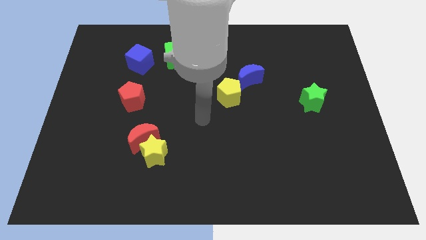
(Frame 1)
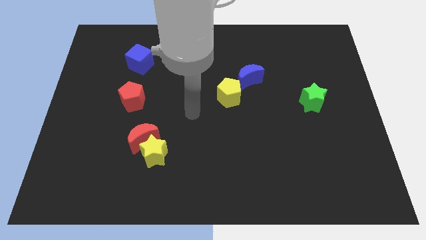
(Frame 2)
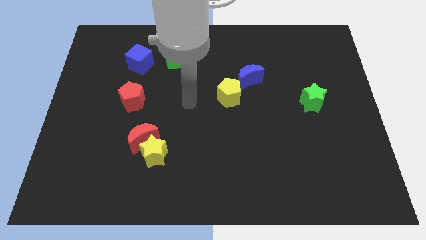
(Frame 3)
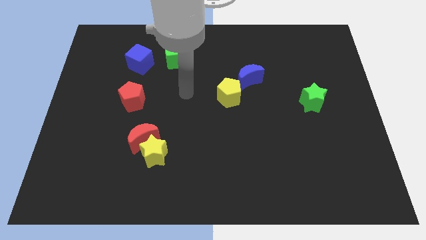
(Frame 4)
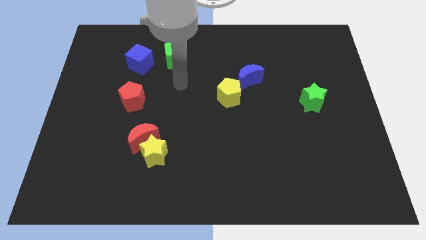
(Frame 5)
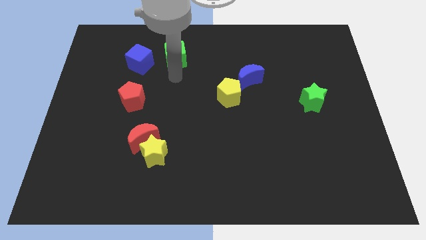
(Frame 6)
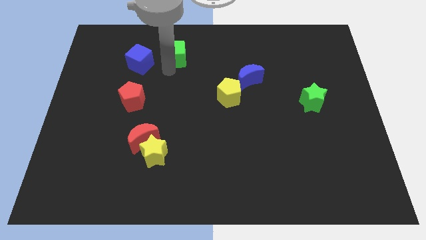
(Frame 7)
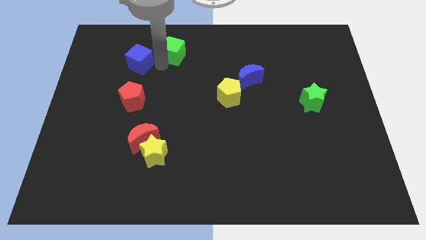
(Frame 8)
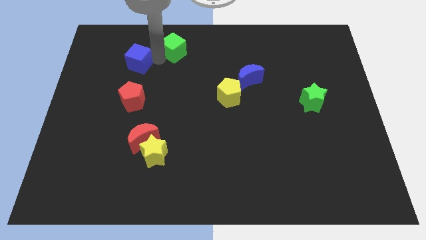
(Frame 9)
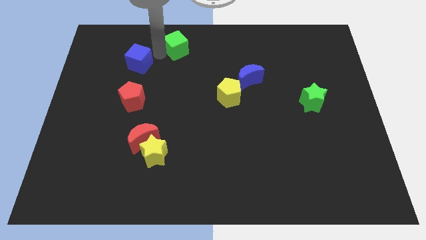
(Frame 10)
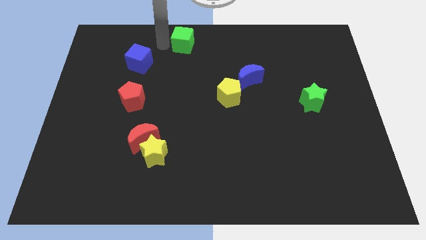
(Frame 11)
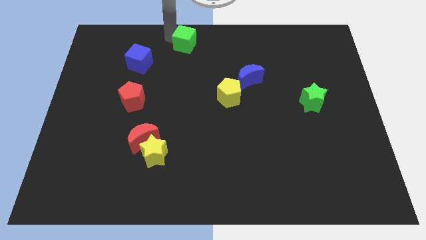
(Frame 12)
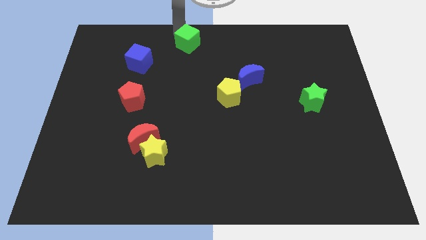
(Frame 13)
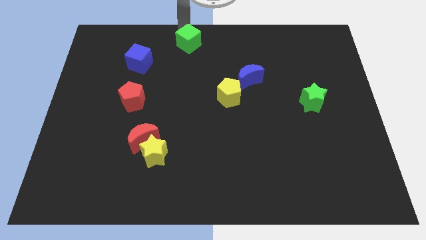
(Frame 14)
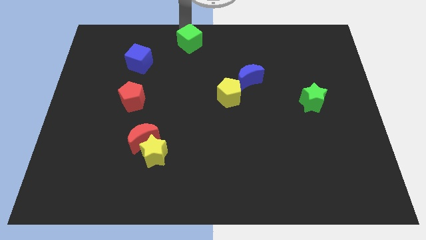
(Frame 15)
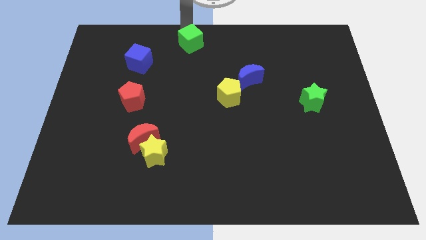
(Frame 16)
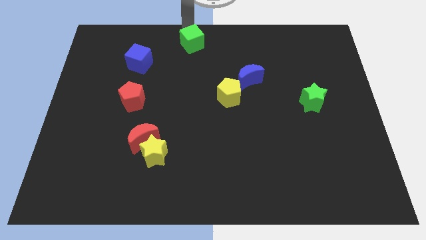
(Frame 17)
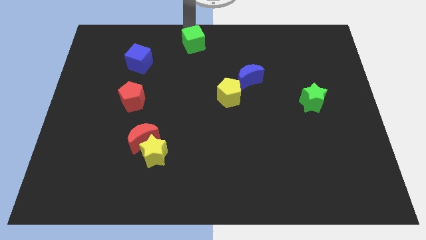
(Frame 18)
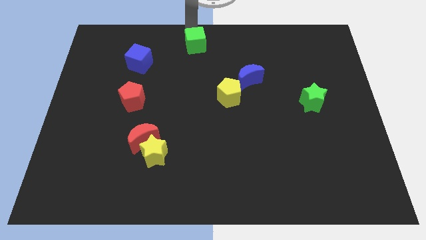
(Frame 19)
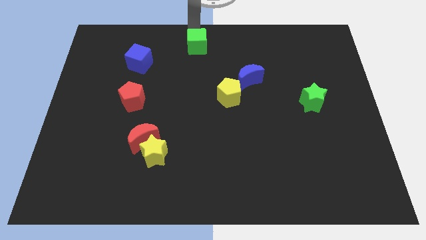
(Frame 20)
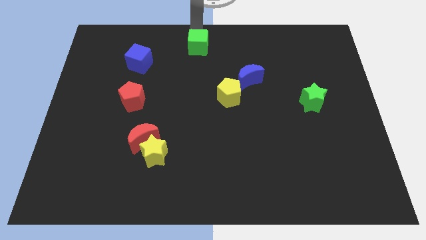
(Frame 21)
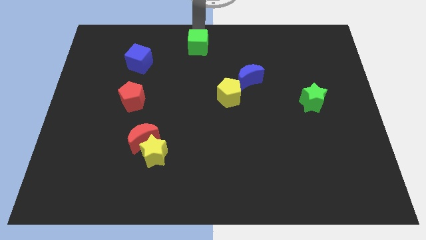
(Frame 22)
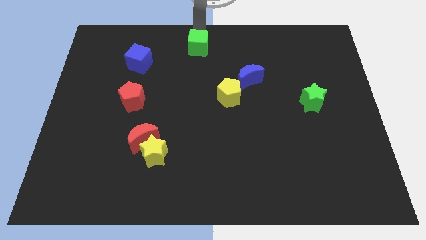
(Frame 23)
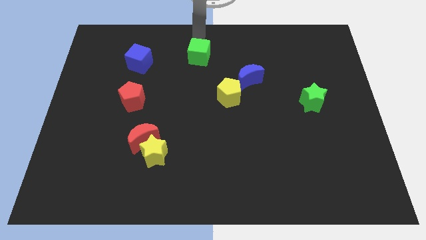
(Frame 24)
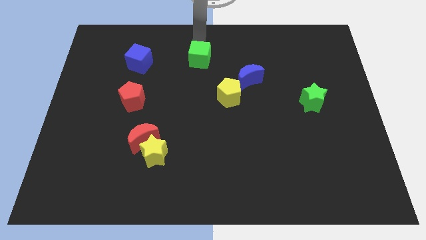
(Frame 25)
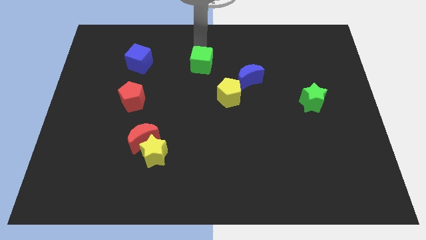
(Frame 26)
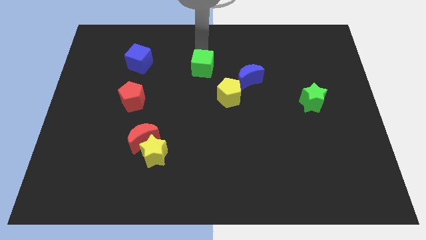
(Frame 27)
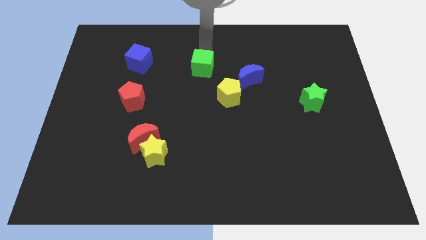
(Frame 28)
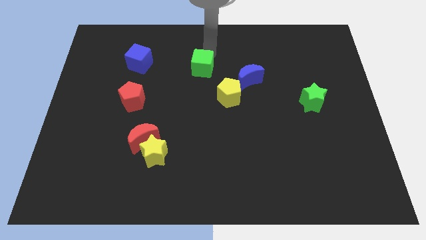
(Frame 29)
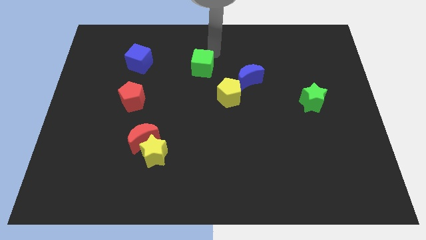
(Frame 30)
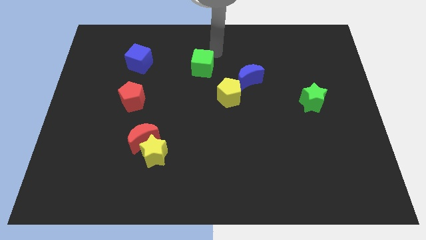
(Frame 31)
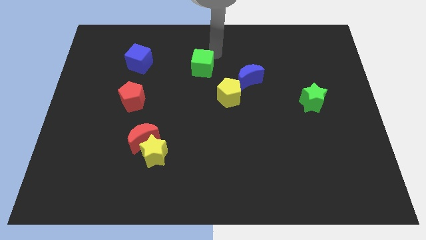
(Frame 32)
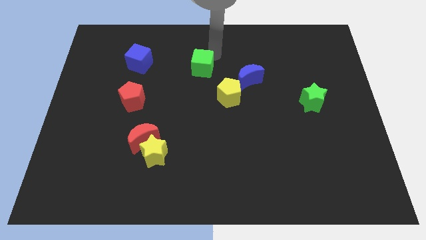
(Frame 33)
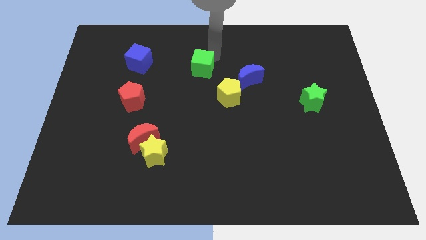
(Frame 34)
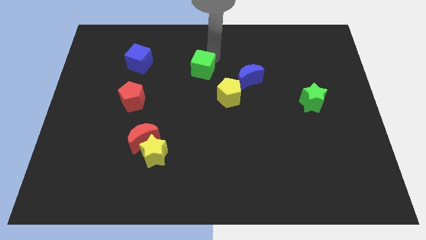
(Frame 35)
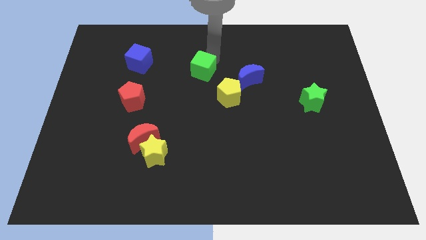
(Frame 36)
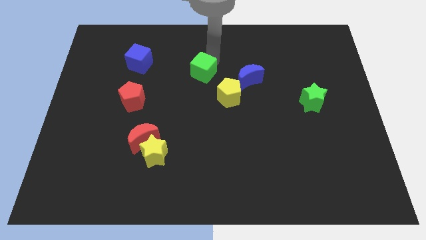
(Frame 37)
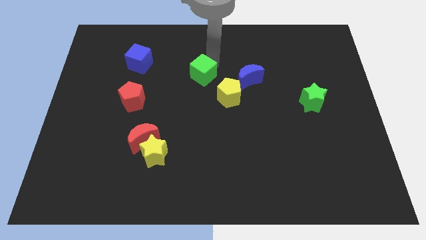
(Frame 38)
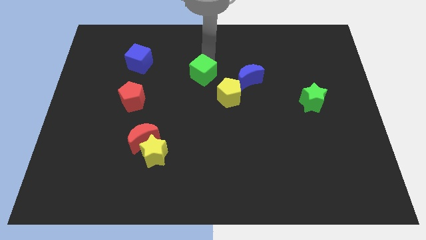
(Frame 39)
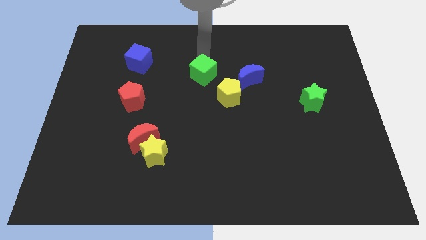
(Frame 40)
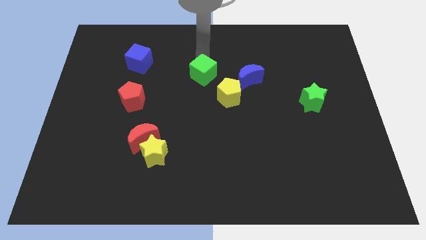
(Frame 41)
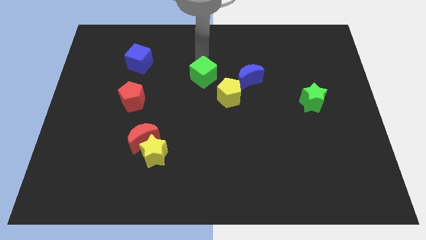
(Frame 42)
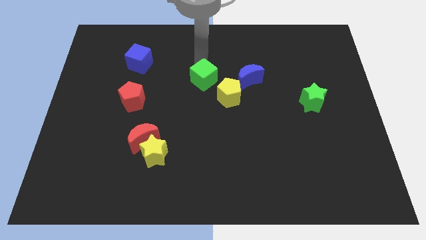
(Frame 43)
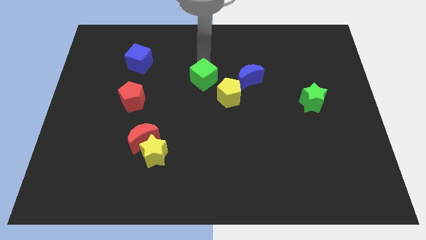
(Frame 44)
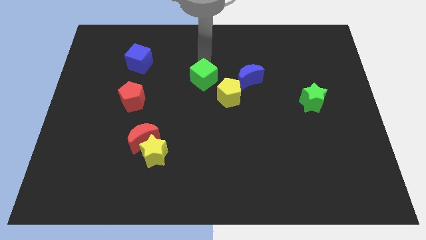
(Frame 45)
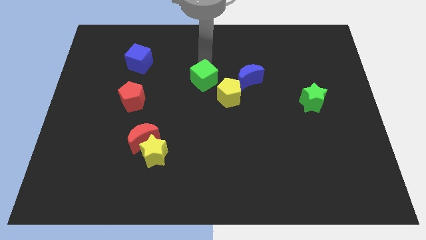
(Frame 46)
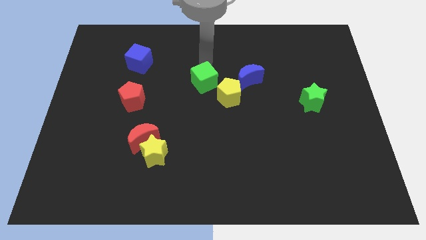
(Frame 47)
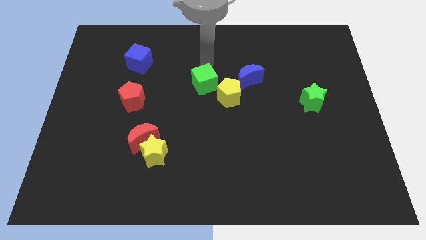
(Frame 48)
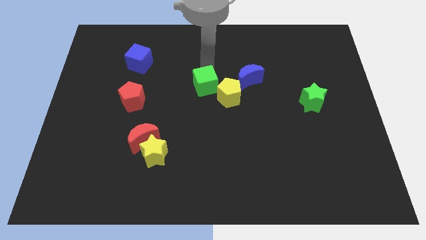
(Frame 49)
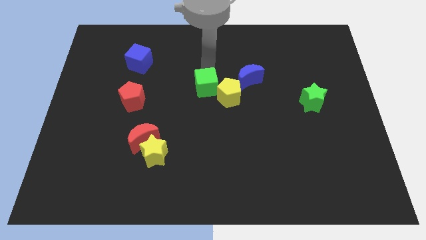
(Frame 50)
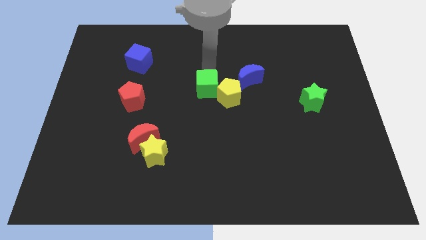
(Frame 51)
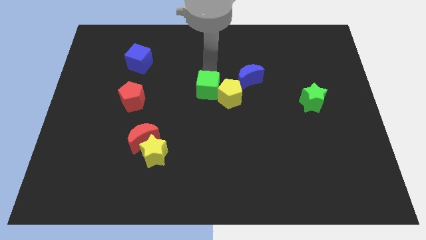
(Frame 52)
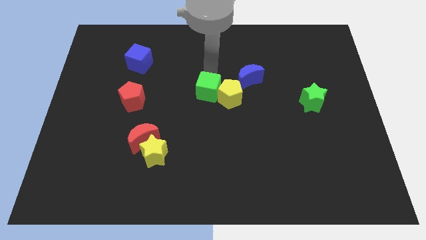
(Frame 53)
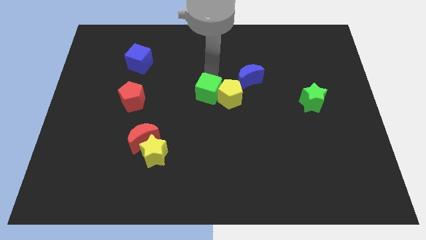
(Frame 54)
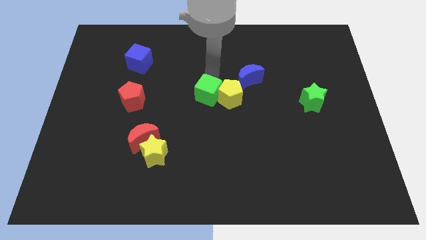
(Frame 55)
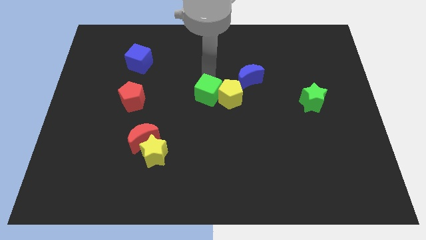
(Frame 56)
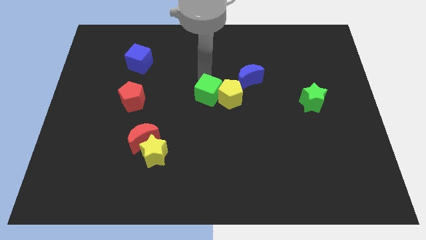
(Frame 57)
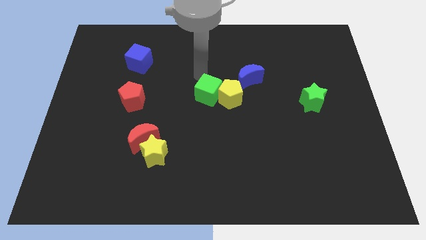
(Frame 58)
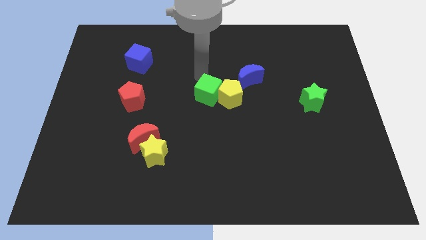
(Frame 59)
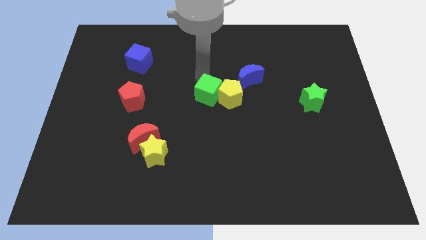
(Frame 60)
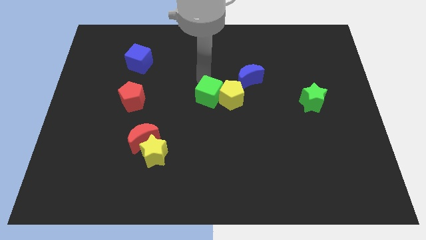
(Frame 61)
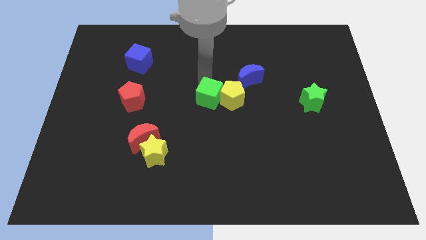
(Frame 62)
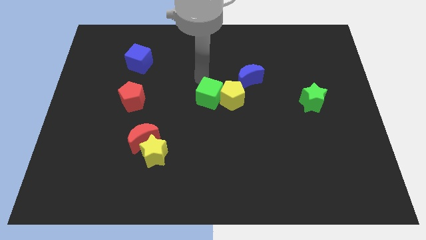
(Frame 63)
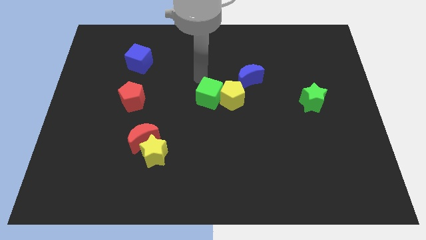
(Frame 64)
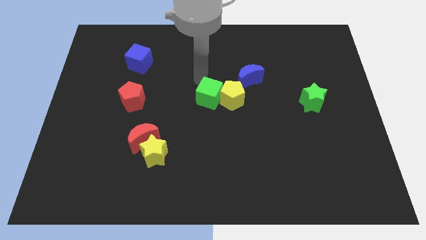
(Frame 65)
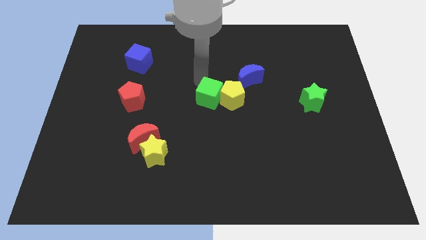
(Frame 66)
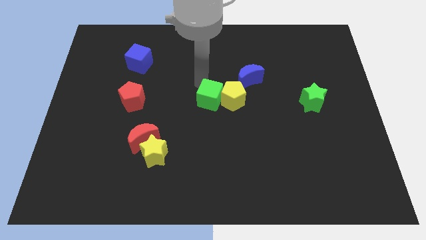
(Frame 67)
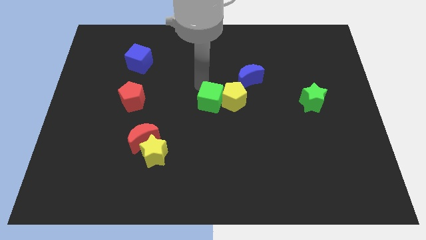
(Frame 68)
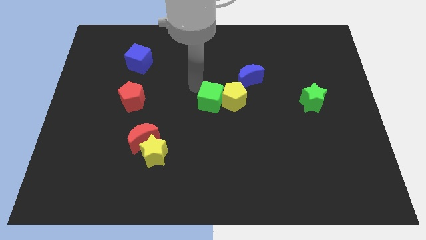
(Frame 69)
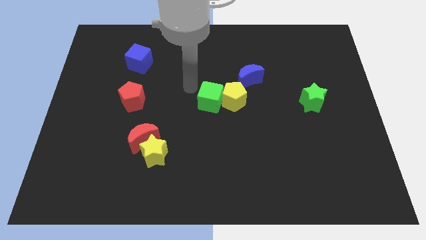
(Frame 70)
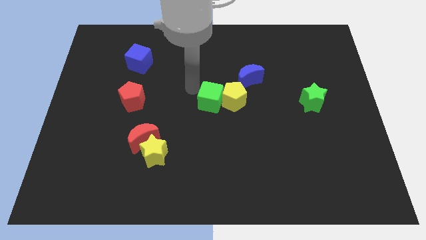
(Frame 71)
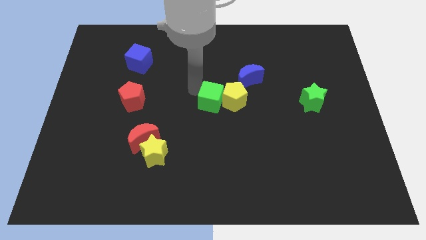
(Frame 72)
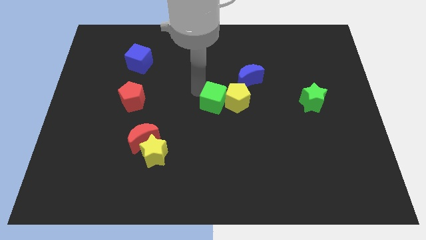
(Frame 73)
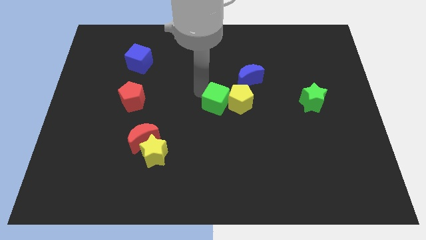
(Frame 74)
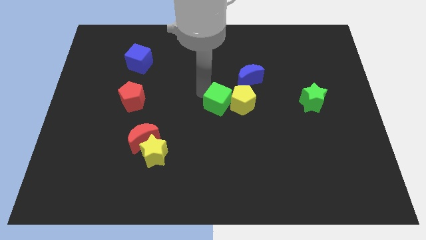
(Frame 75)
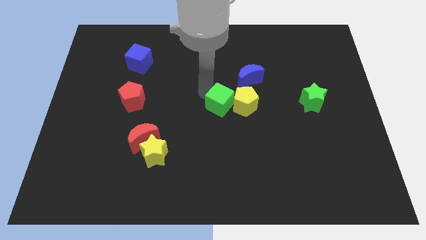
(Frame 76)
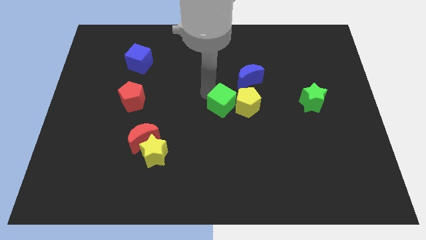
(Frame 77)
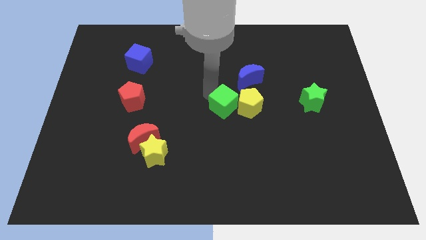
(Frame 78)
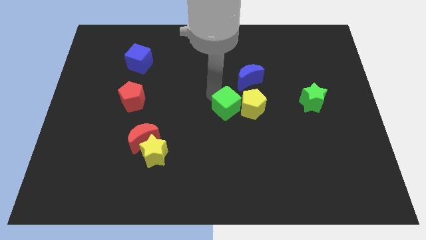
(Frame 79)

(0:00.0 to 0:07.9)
slide the green cube down and right diagonally

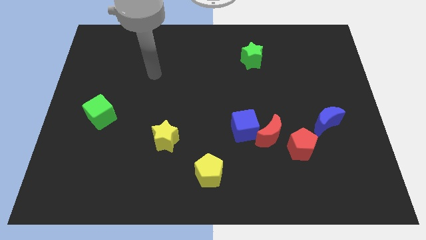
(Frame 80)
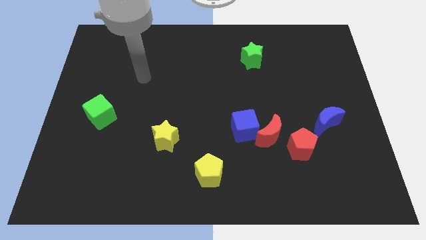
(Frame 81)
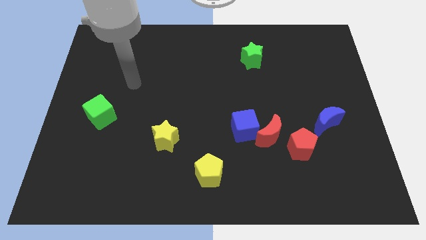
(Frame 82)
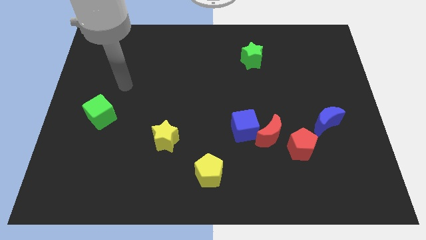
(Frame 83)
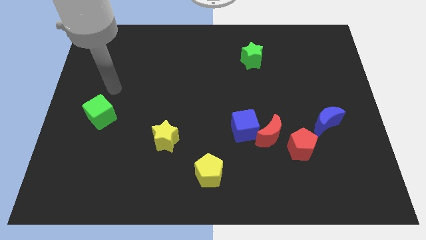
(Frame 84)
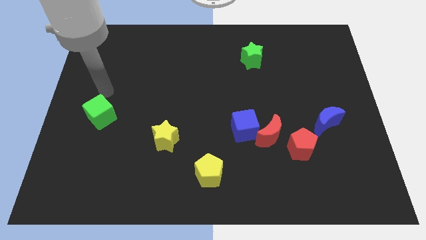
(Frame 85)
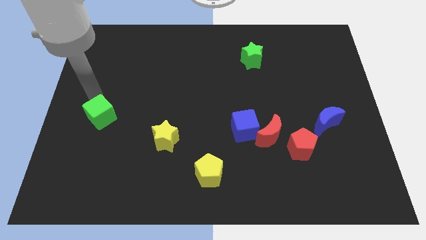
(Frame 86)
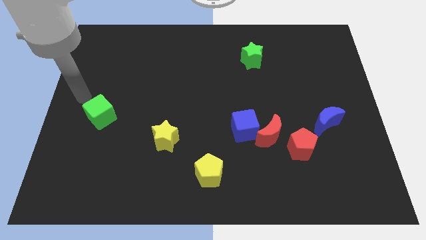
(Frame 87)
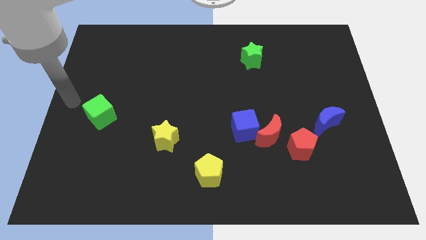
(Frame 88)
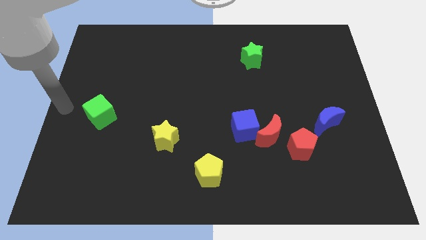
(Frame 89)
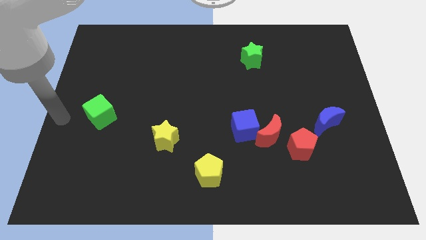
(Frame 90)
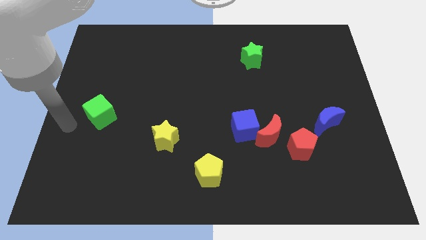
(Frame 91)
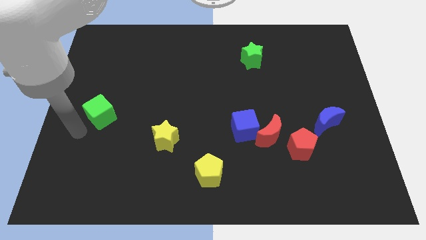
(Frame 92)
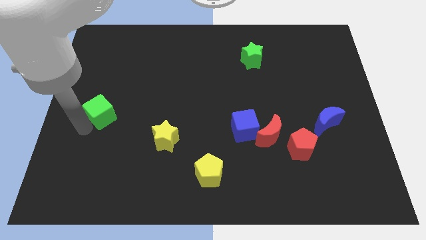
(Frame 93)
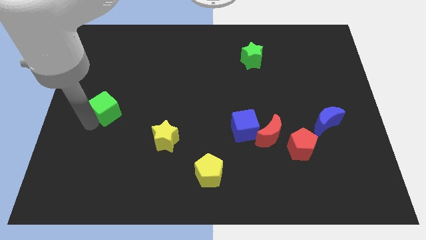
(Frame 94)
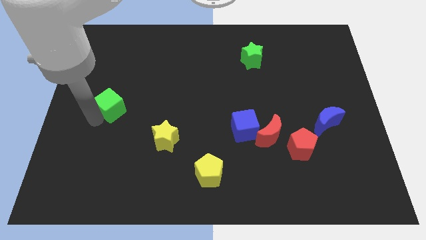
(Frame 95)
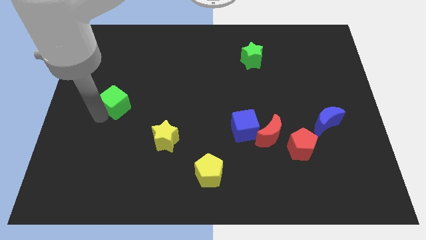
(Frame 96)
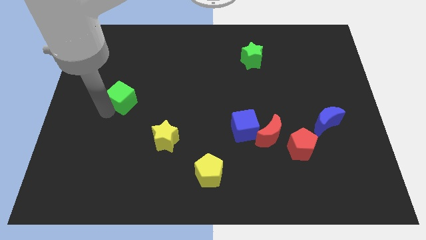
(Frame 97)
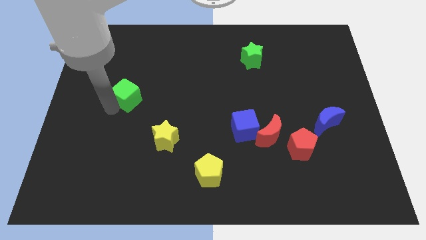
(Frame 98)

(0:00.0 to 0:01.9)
push the green cube somewhat upwards and then to the right
